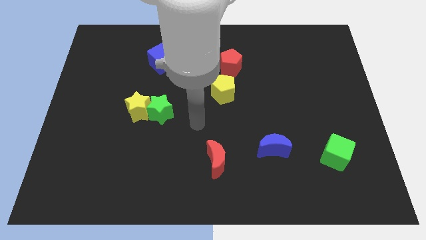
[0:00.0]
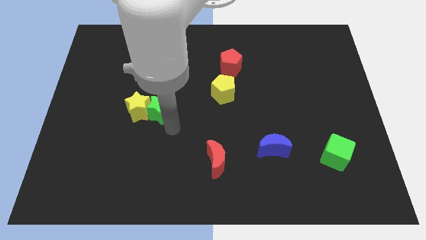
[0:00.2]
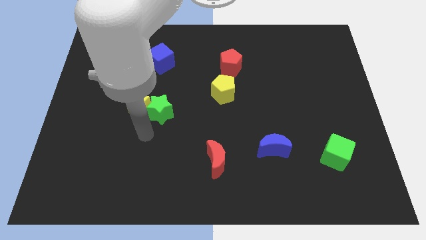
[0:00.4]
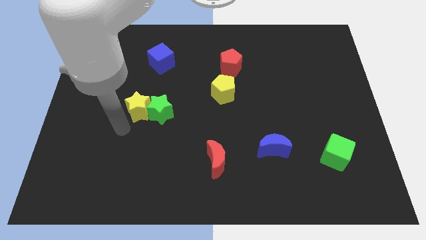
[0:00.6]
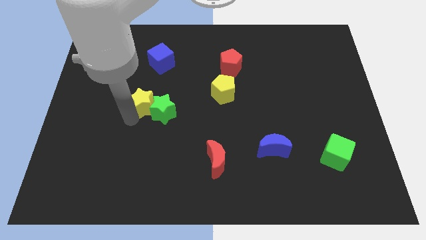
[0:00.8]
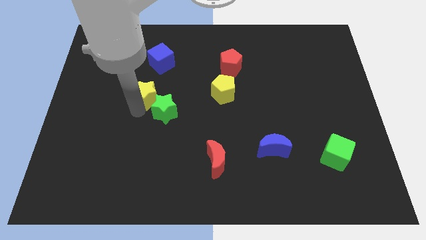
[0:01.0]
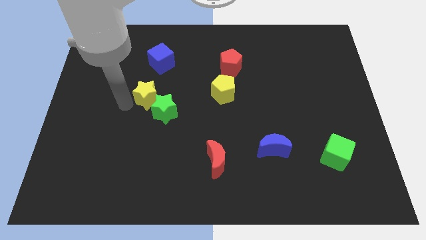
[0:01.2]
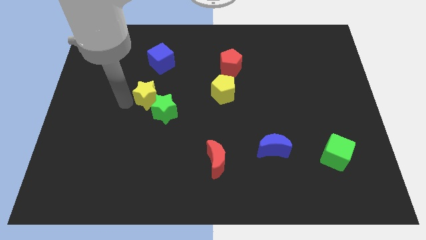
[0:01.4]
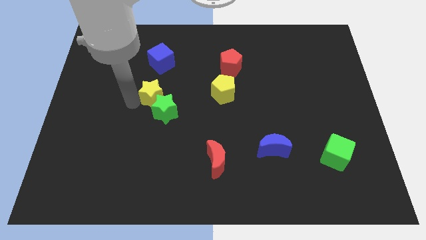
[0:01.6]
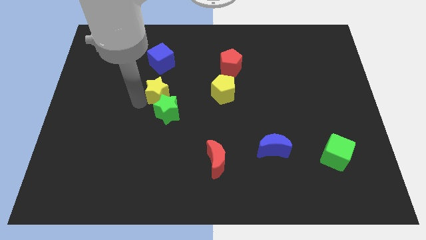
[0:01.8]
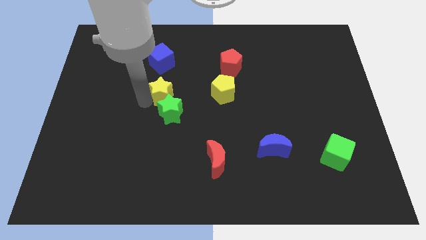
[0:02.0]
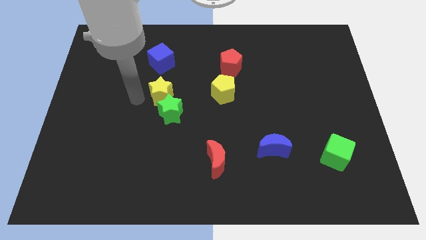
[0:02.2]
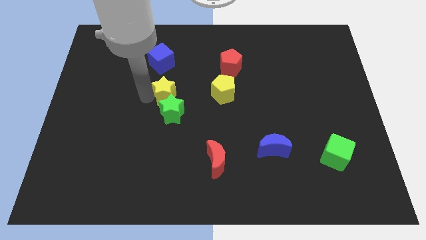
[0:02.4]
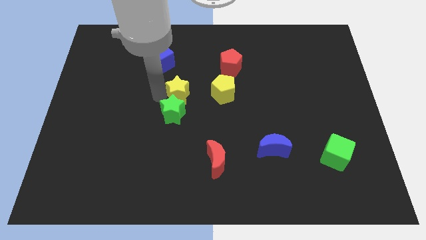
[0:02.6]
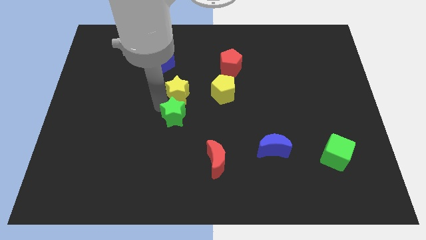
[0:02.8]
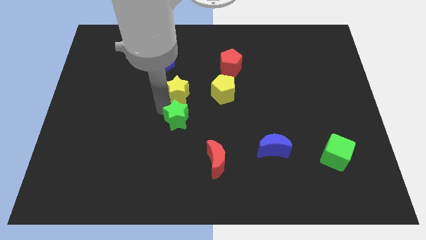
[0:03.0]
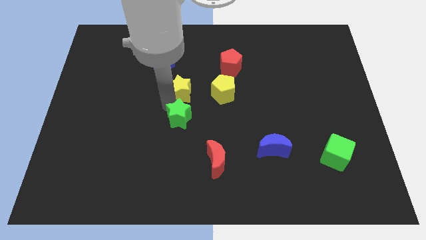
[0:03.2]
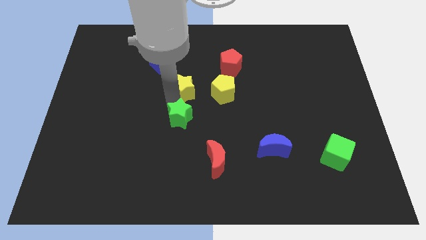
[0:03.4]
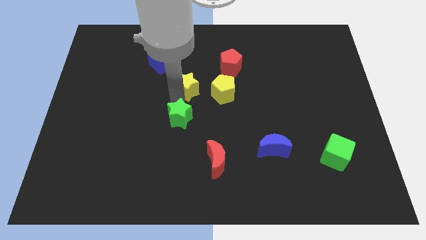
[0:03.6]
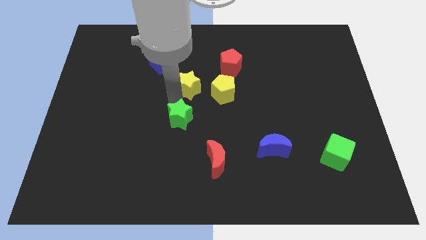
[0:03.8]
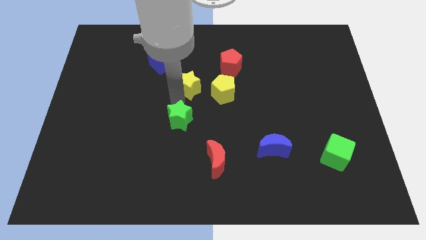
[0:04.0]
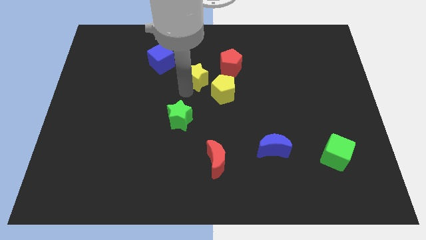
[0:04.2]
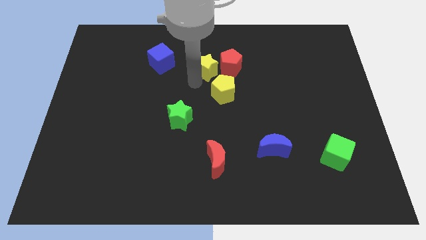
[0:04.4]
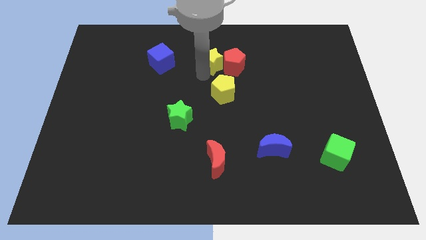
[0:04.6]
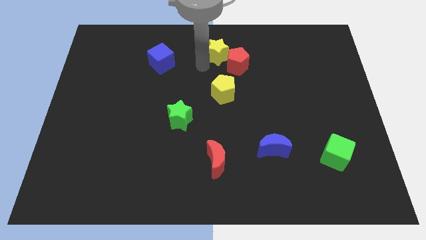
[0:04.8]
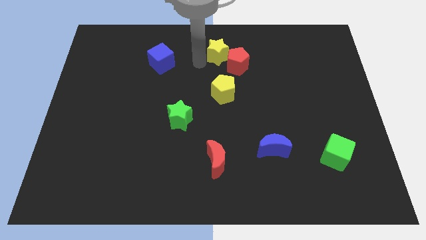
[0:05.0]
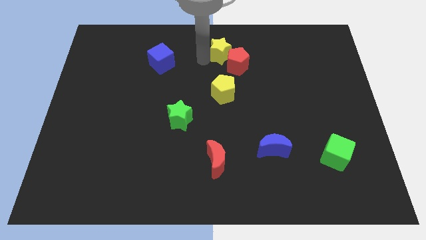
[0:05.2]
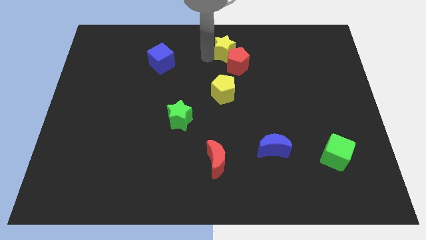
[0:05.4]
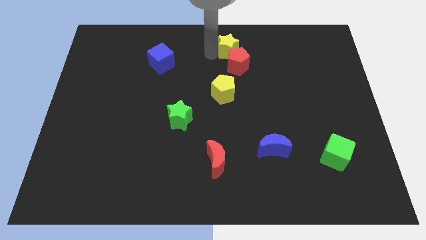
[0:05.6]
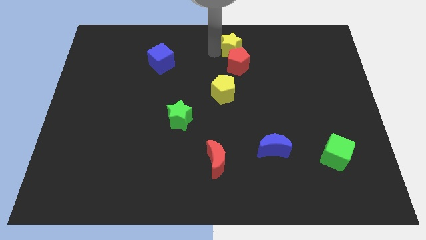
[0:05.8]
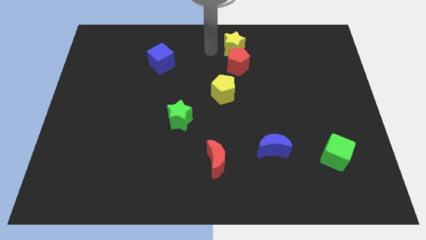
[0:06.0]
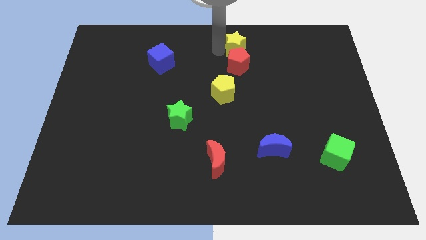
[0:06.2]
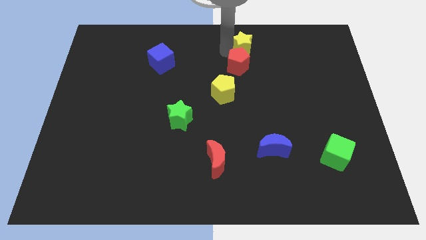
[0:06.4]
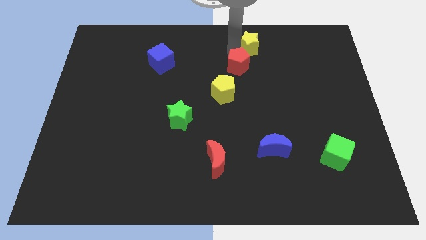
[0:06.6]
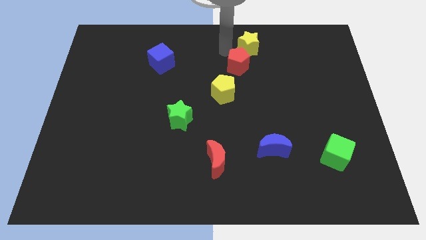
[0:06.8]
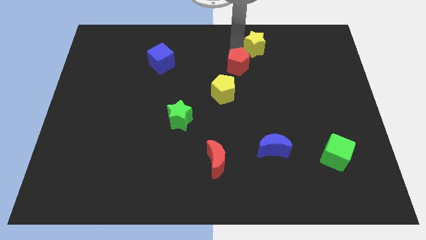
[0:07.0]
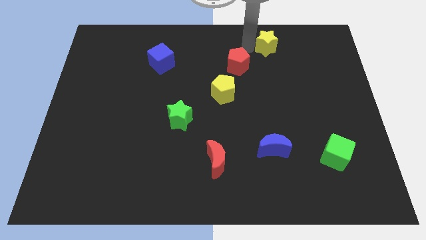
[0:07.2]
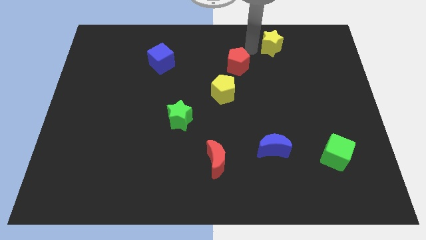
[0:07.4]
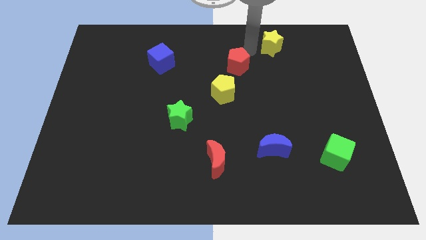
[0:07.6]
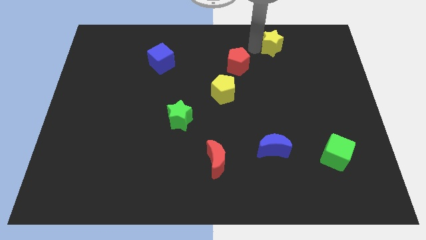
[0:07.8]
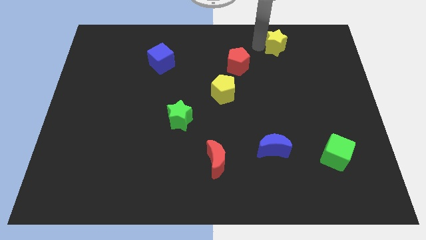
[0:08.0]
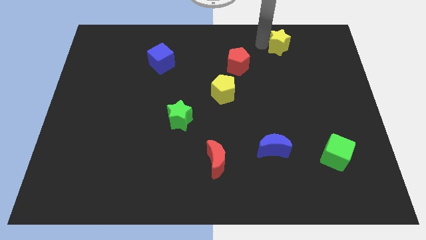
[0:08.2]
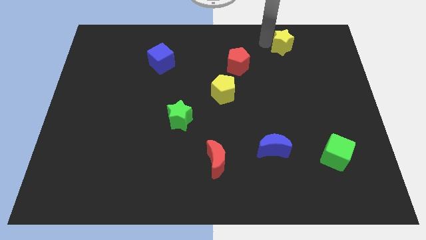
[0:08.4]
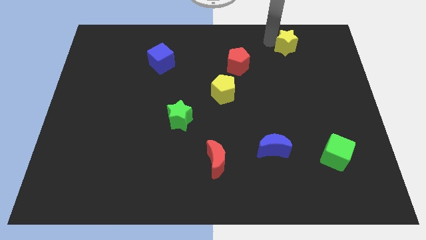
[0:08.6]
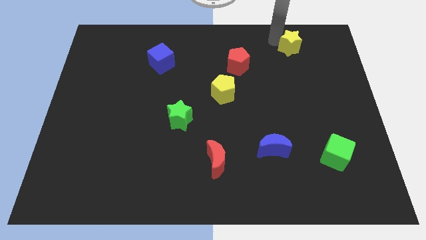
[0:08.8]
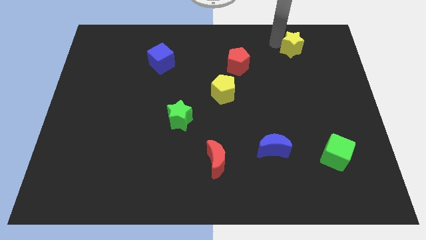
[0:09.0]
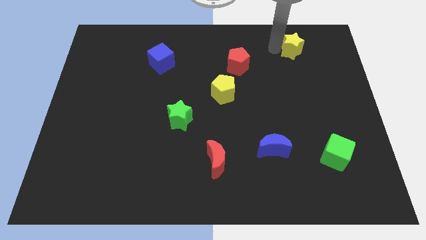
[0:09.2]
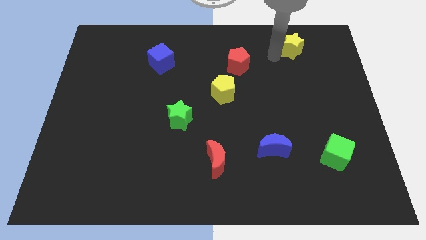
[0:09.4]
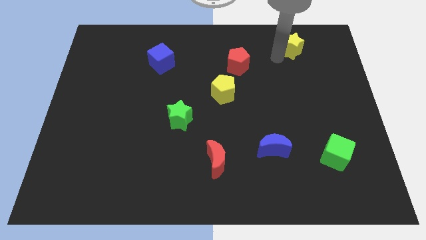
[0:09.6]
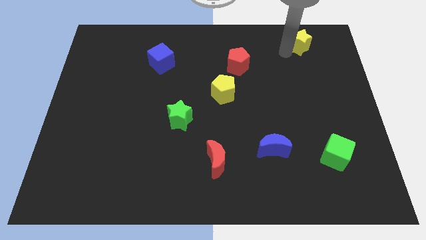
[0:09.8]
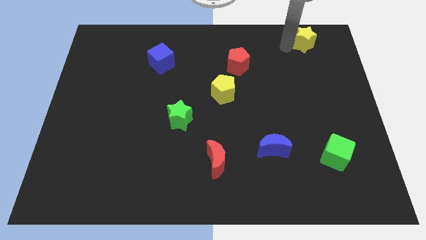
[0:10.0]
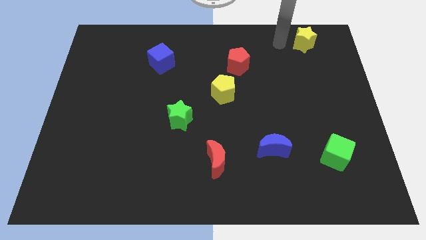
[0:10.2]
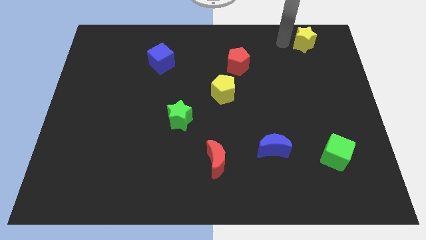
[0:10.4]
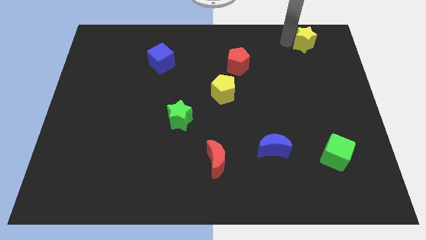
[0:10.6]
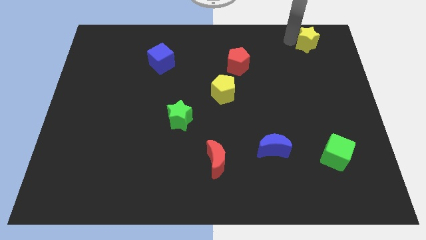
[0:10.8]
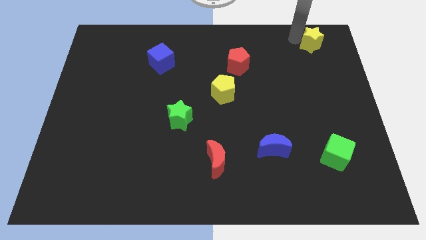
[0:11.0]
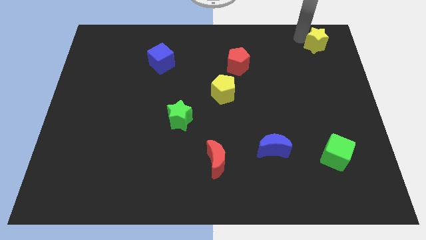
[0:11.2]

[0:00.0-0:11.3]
put the yellow star to the upper right corner

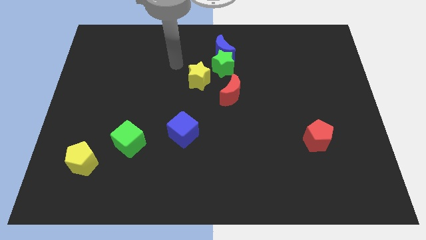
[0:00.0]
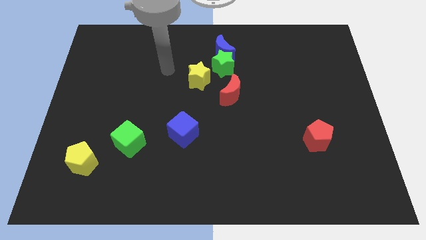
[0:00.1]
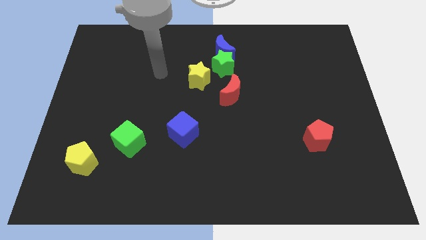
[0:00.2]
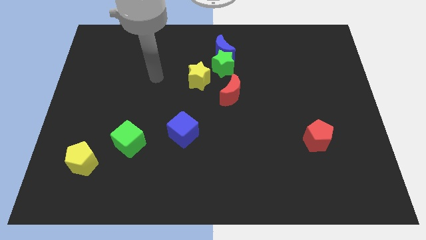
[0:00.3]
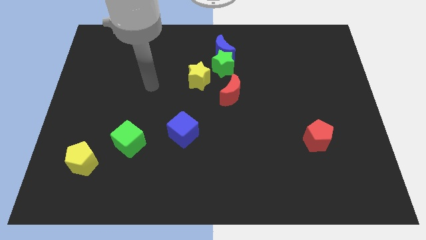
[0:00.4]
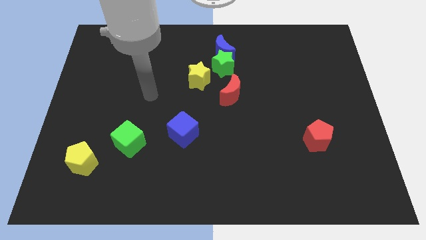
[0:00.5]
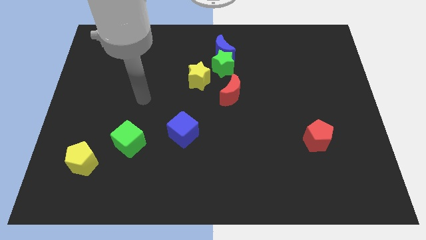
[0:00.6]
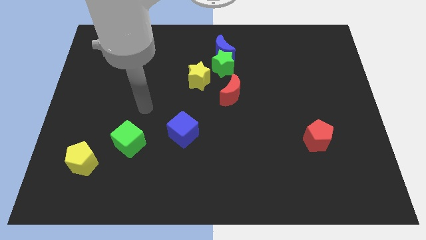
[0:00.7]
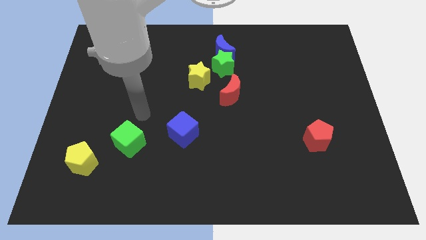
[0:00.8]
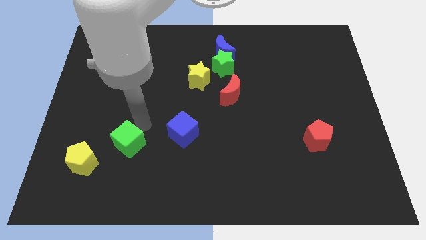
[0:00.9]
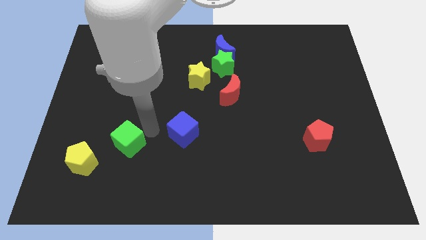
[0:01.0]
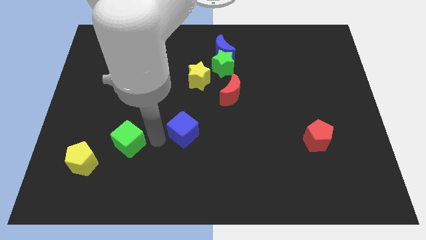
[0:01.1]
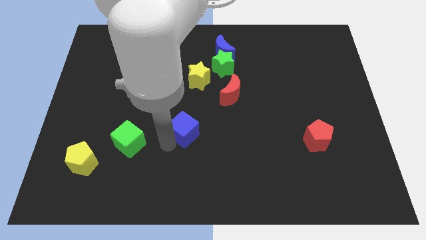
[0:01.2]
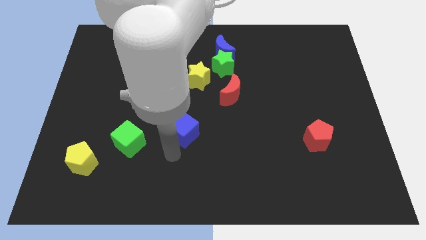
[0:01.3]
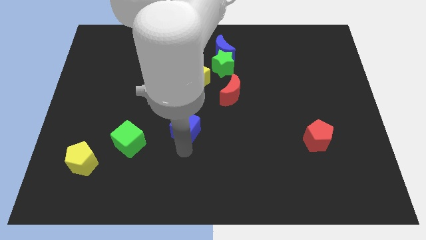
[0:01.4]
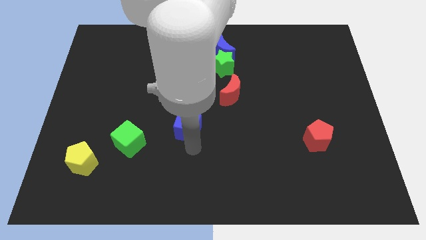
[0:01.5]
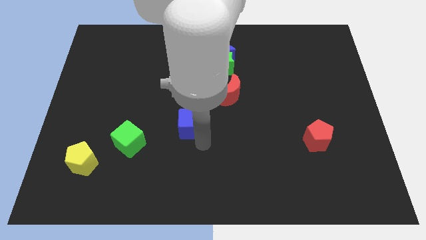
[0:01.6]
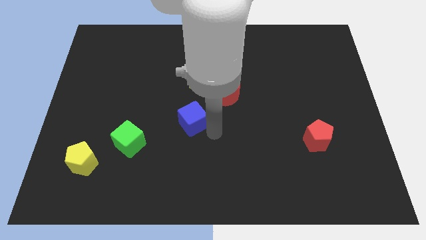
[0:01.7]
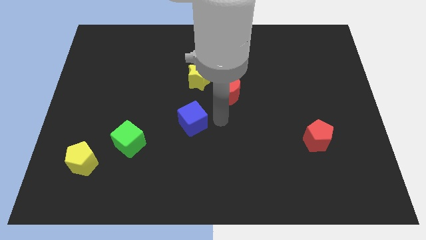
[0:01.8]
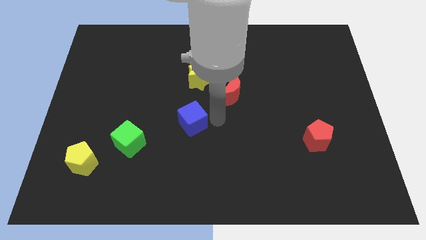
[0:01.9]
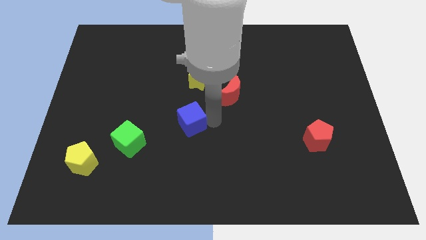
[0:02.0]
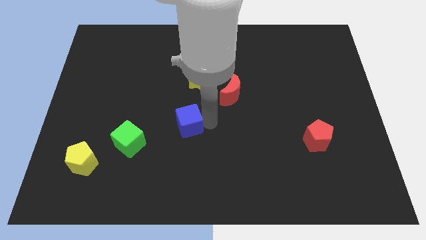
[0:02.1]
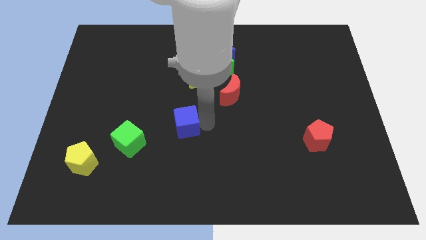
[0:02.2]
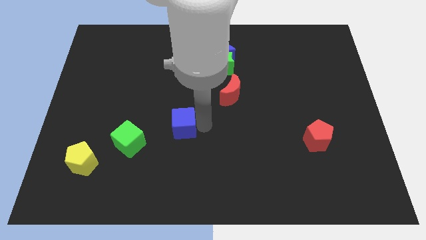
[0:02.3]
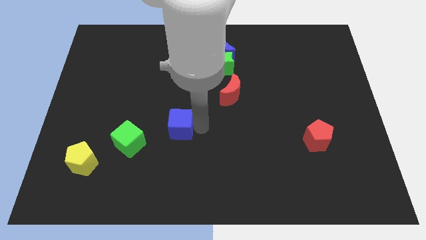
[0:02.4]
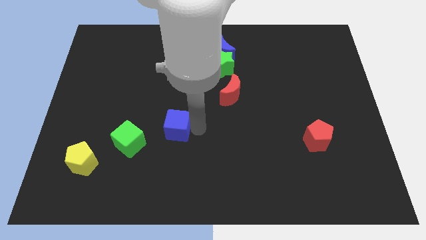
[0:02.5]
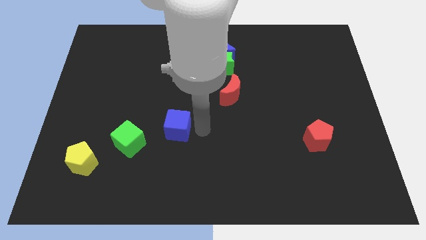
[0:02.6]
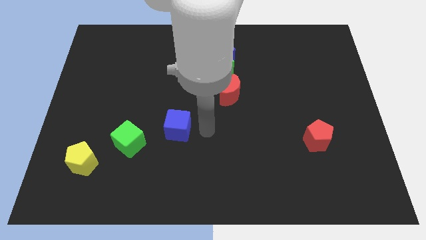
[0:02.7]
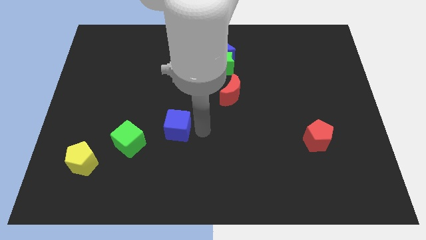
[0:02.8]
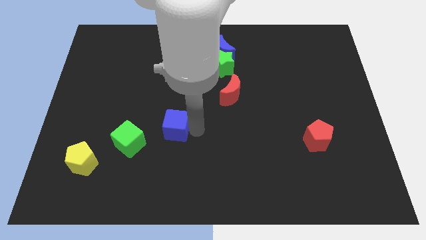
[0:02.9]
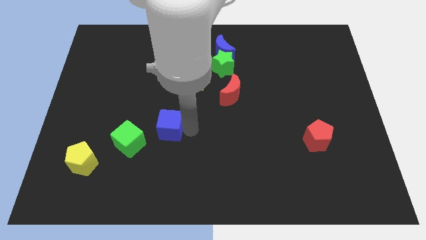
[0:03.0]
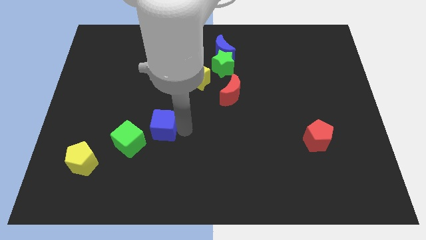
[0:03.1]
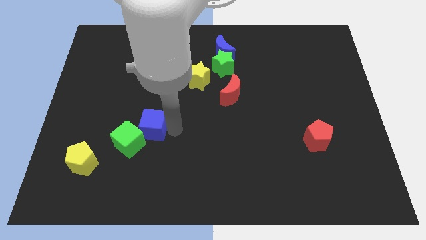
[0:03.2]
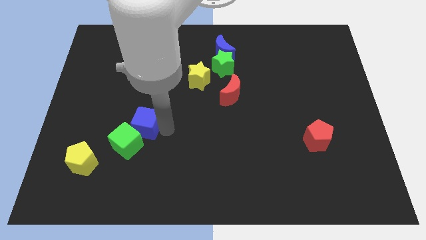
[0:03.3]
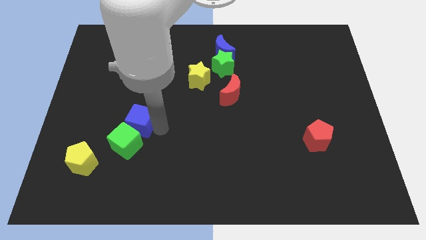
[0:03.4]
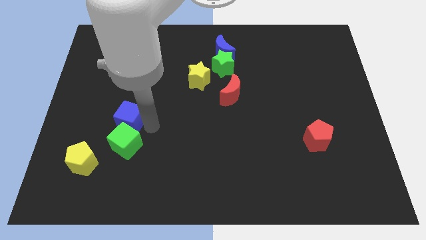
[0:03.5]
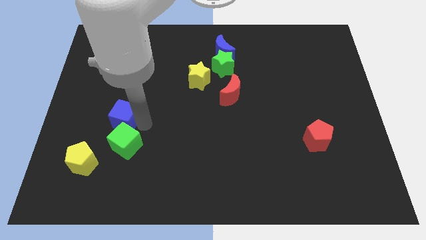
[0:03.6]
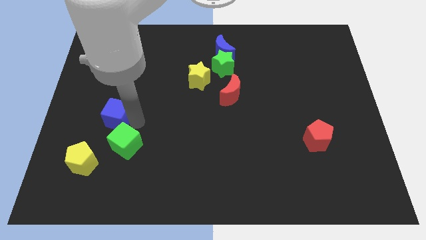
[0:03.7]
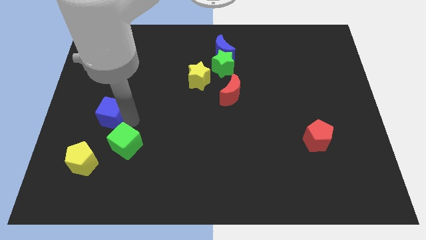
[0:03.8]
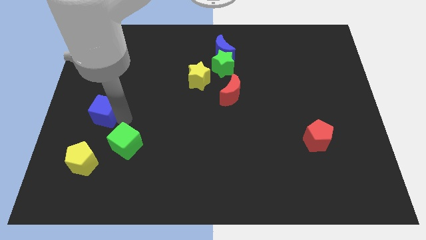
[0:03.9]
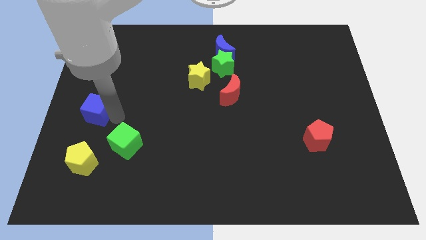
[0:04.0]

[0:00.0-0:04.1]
put the blue cube to the left side of the board
